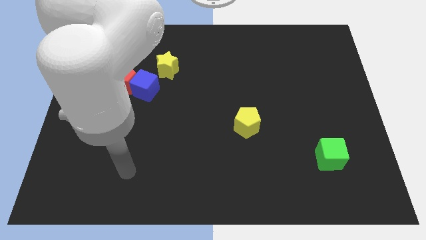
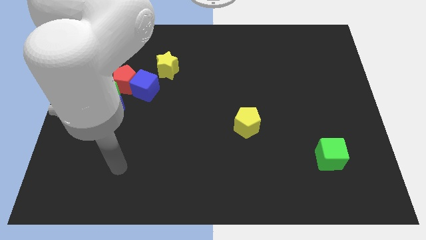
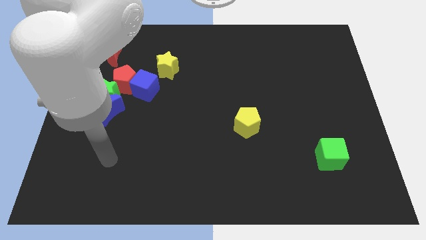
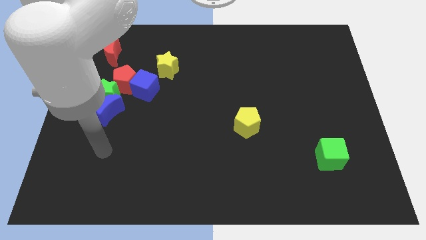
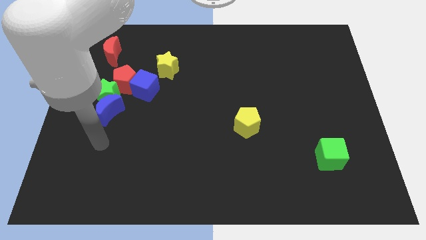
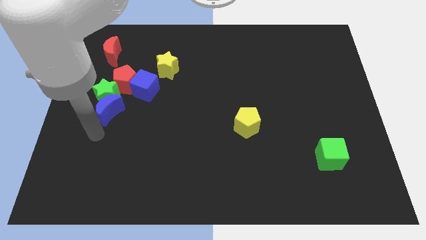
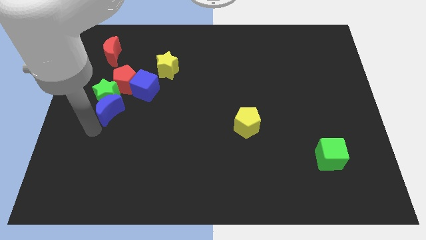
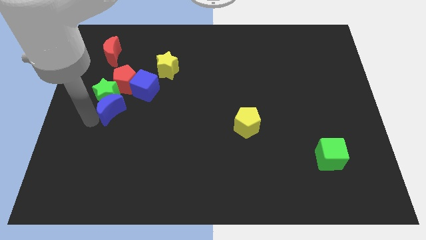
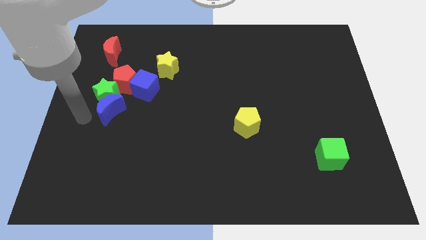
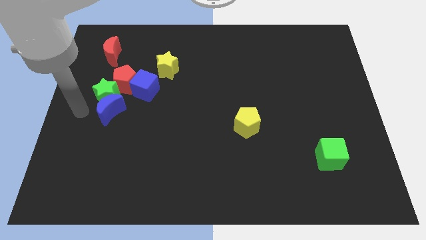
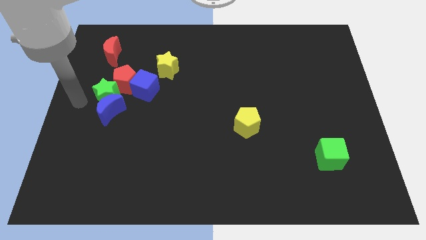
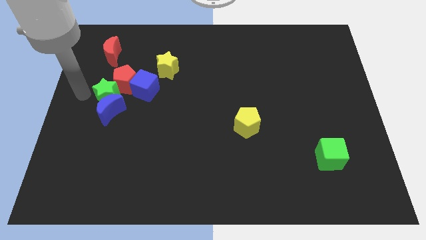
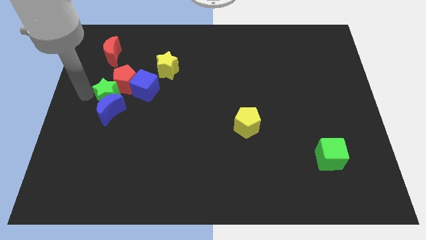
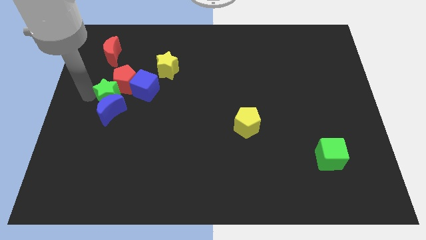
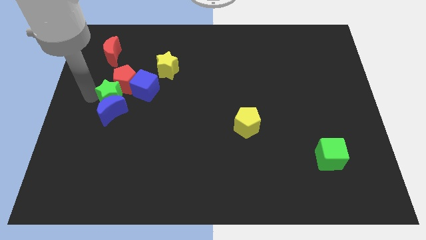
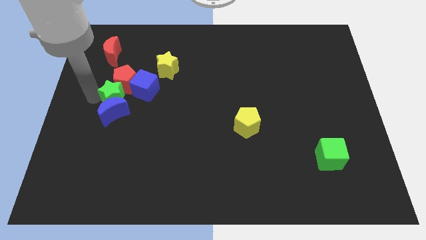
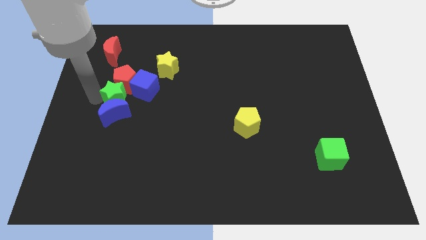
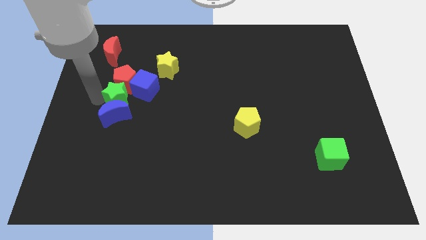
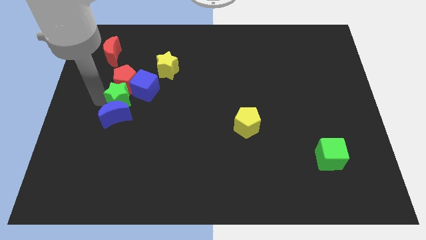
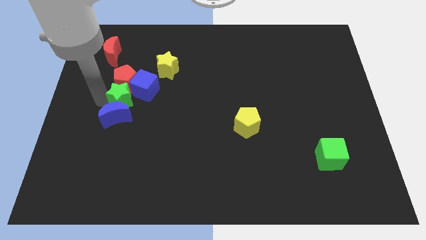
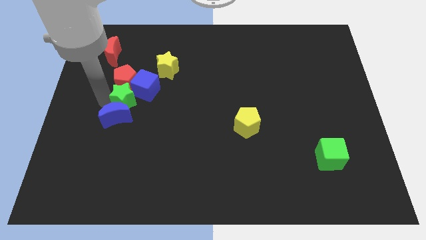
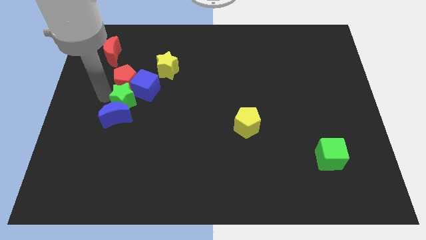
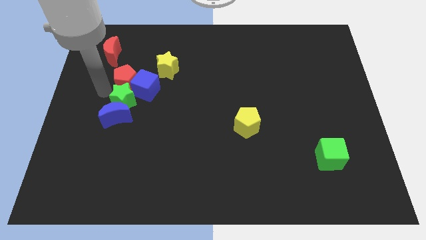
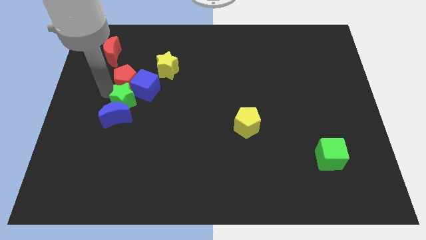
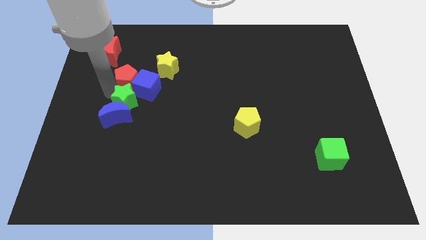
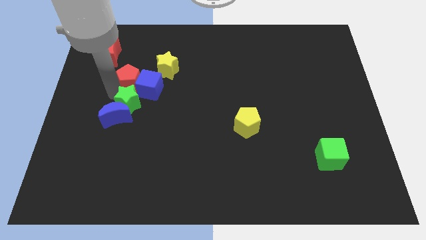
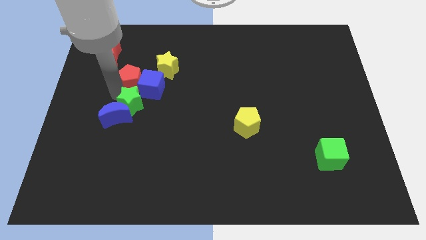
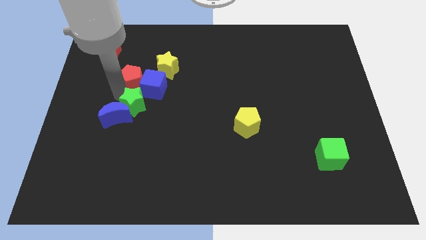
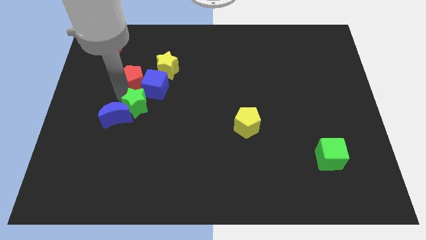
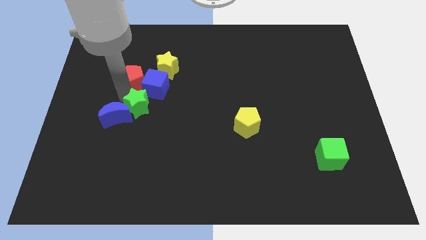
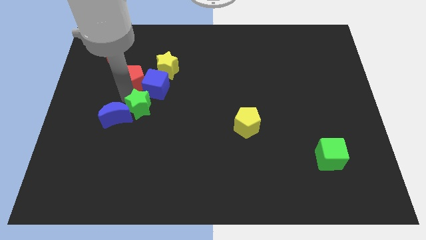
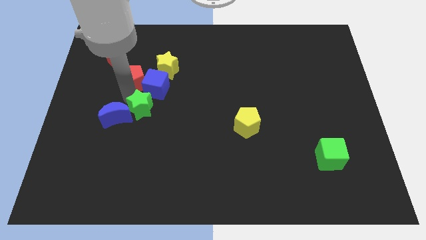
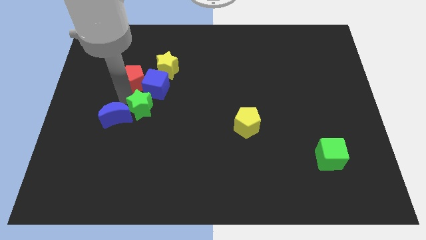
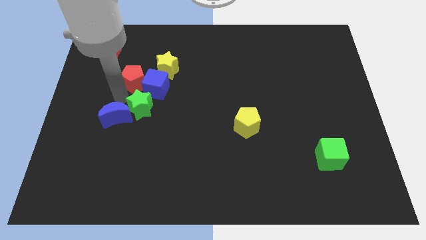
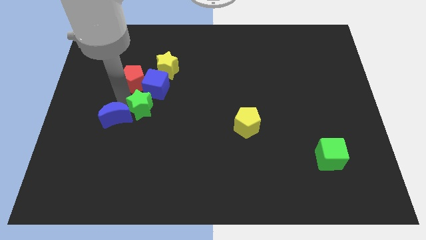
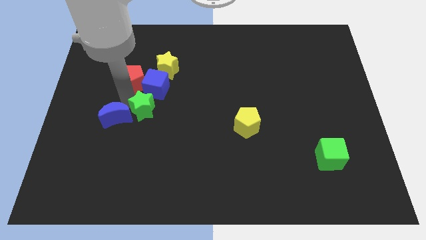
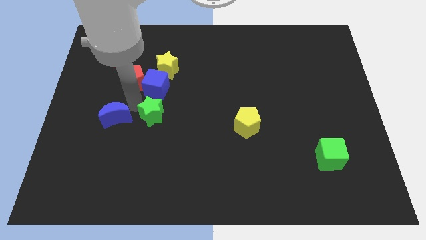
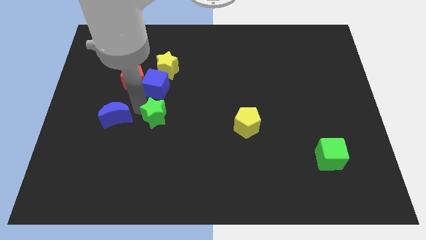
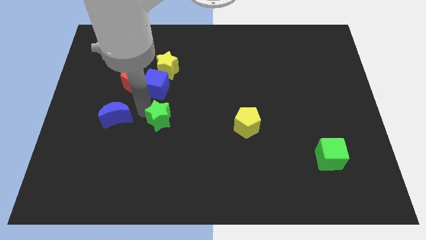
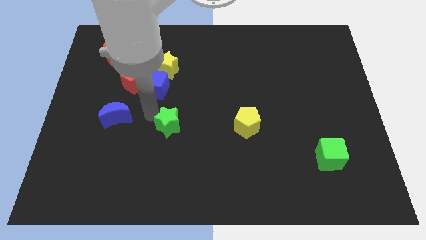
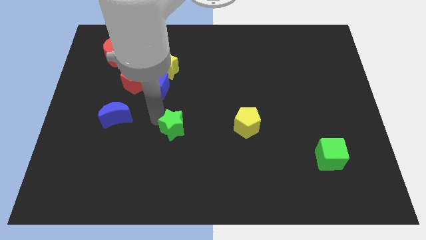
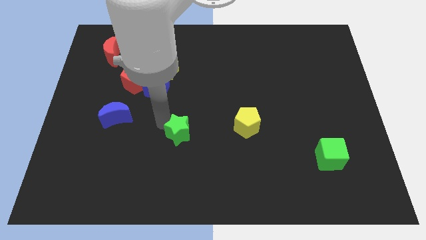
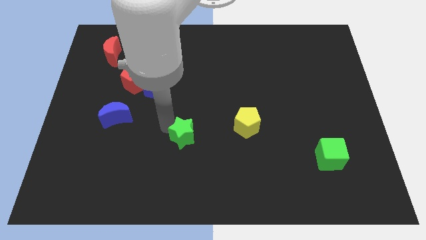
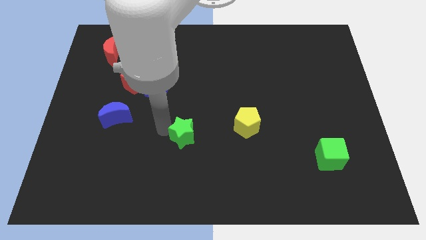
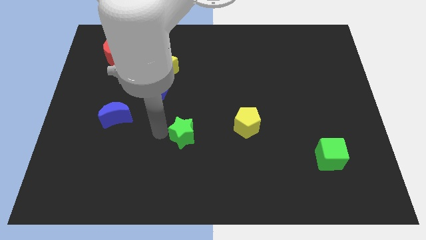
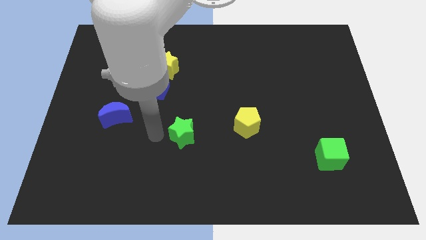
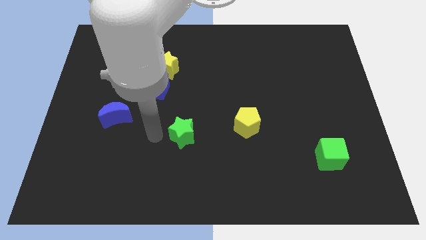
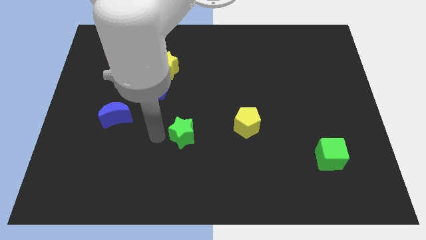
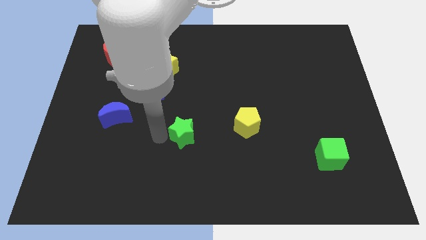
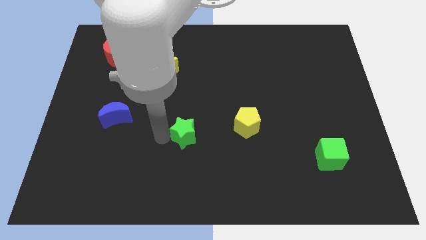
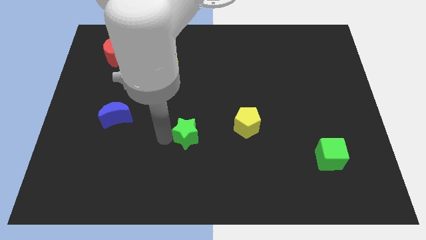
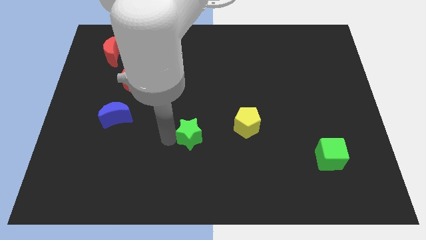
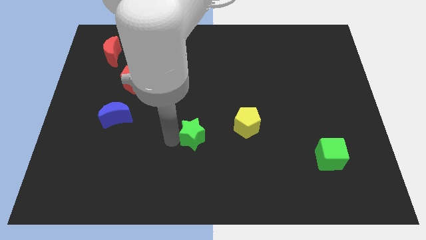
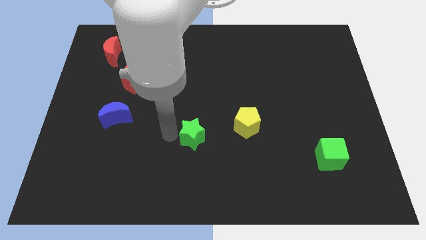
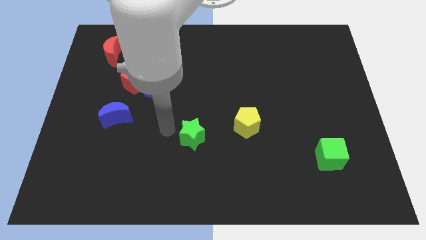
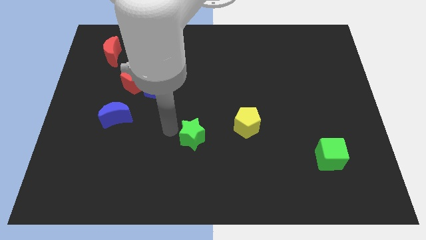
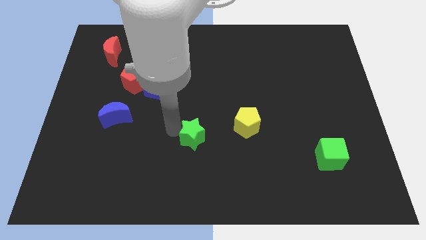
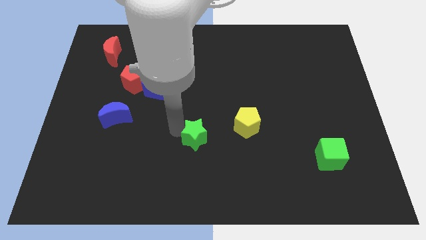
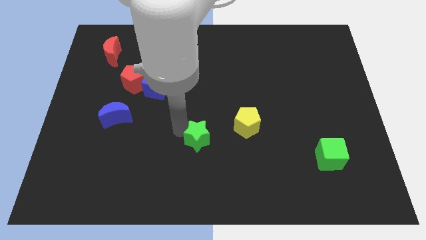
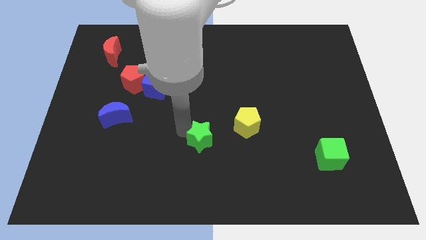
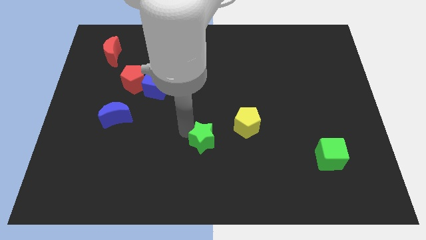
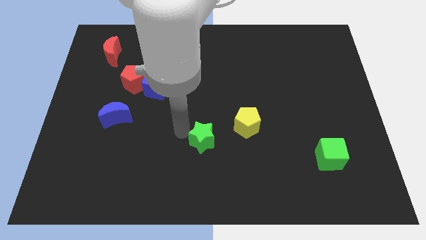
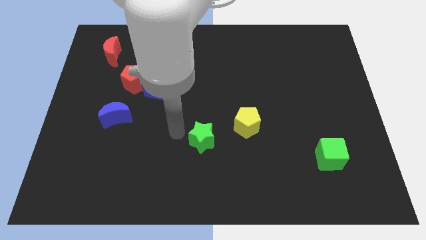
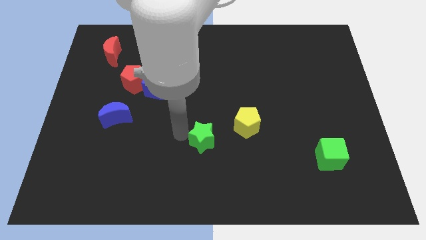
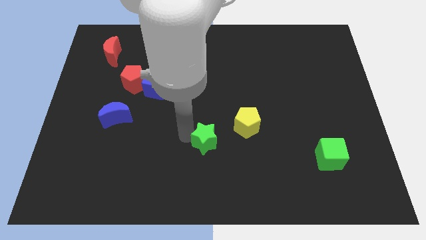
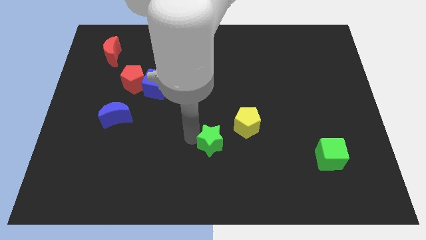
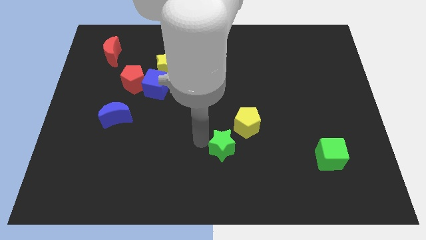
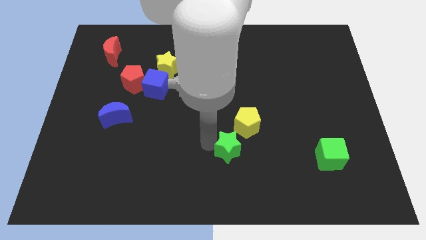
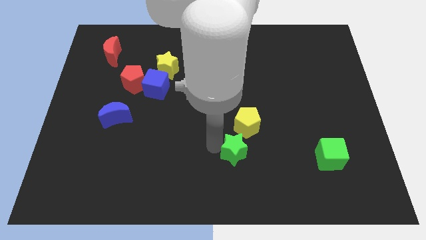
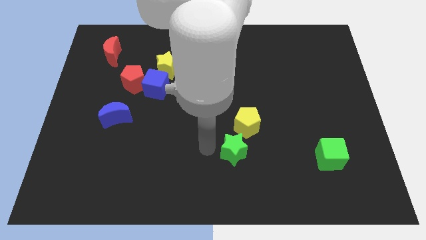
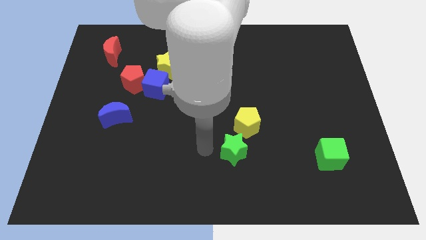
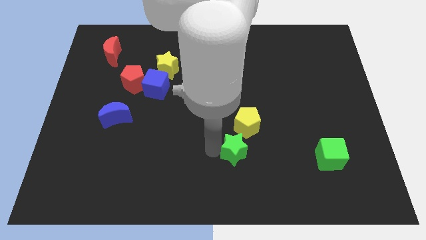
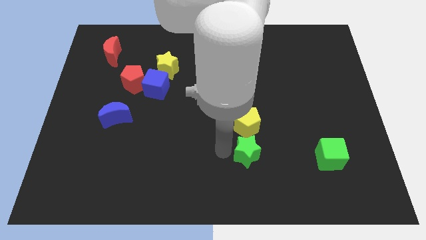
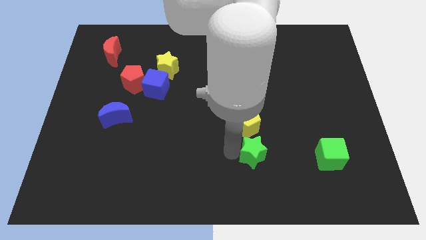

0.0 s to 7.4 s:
move the green star to the left side of the green cube
